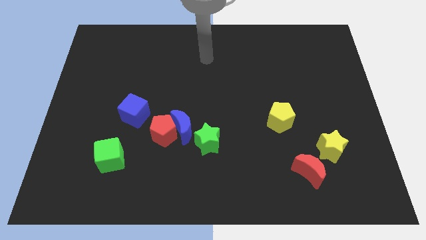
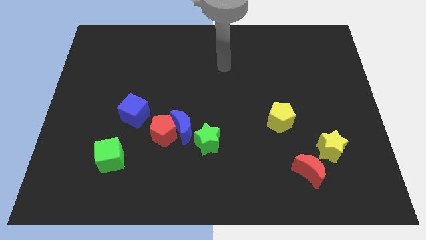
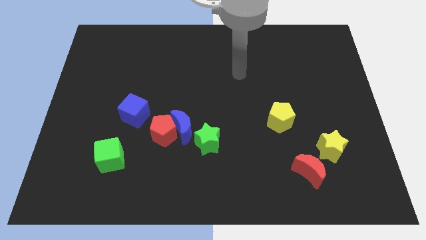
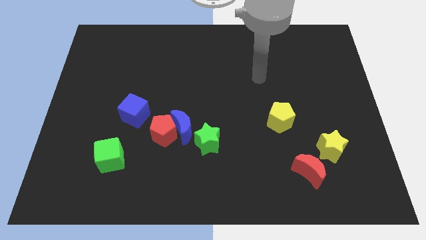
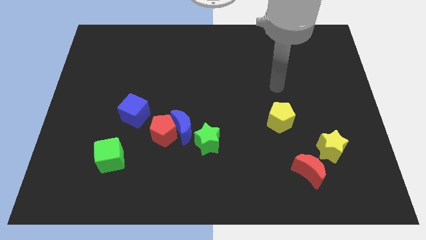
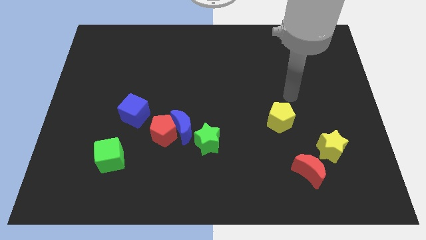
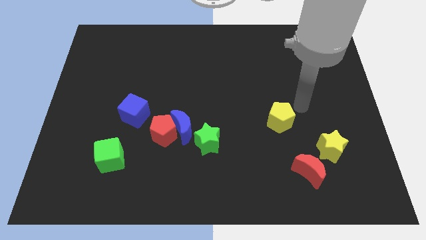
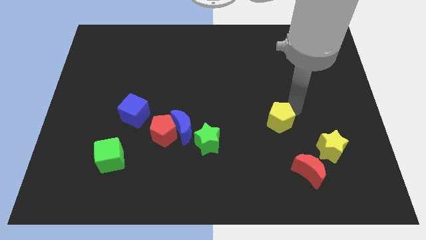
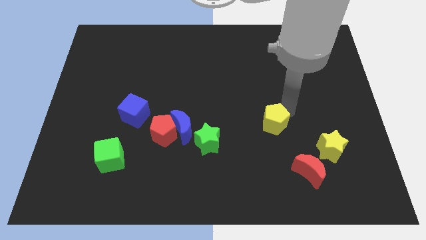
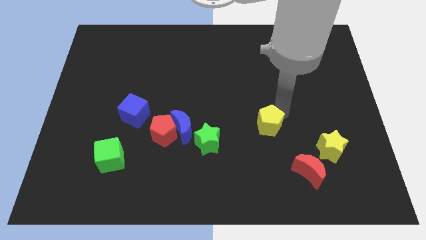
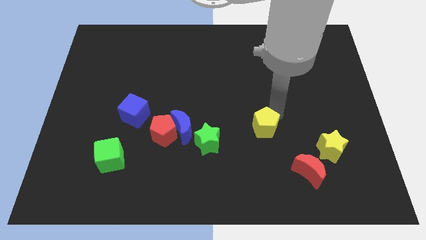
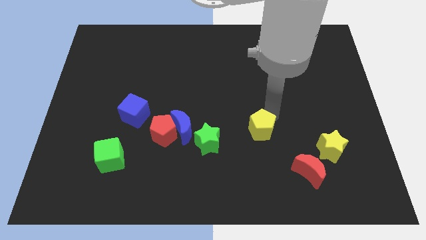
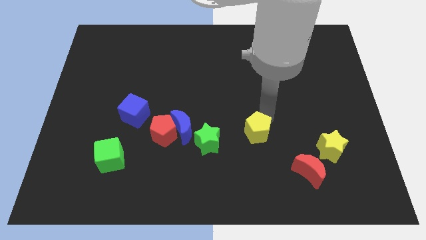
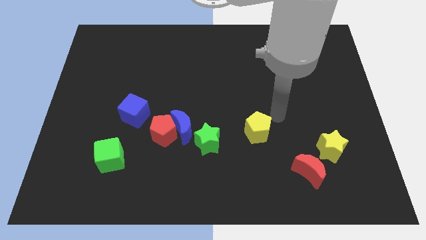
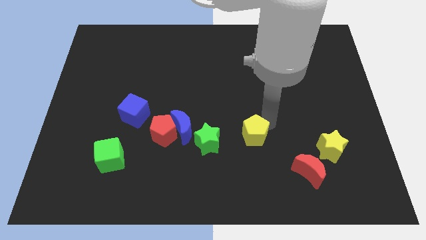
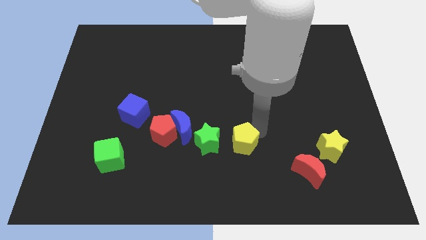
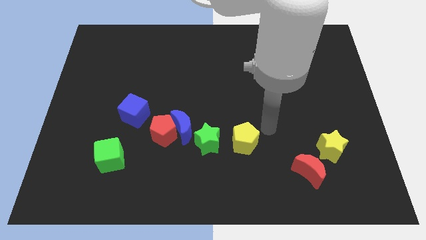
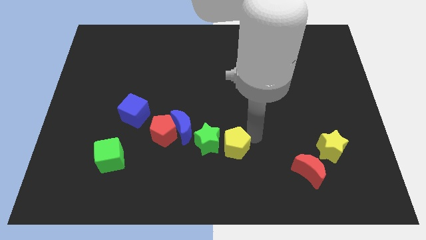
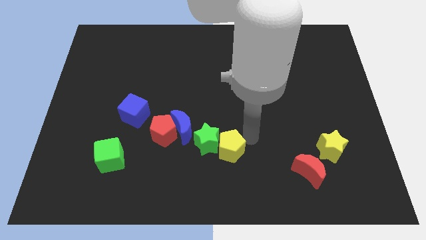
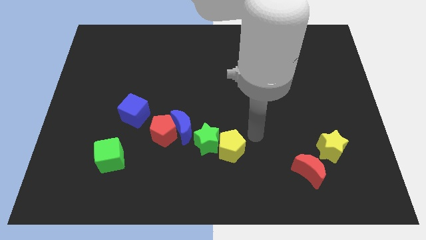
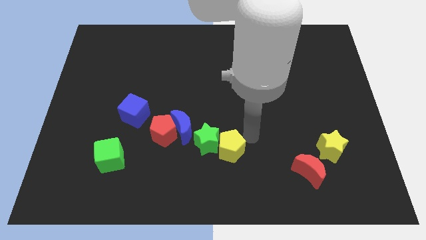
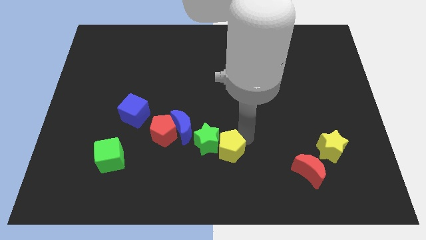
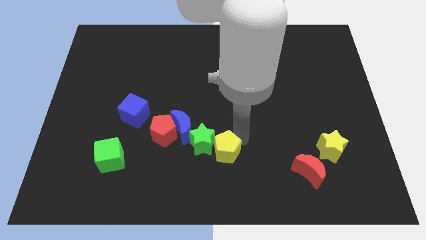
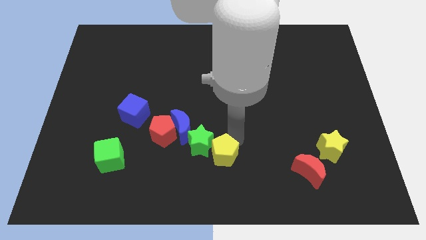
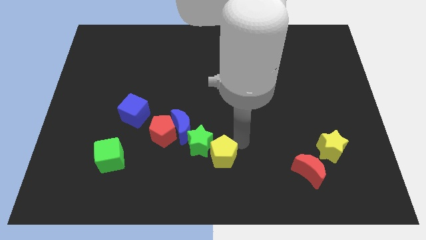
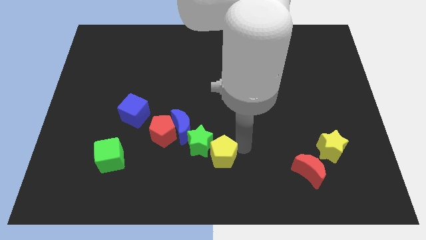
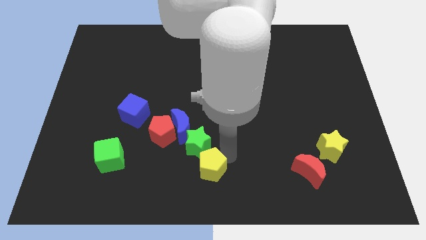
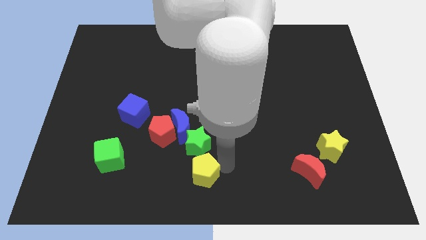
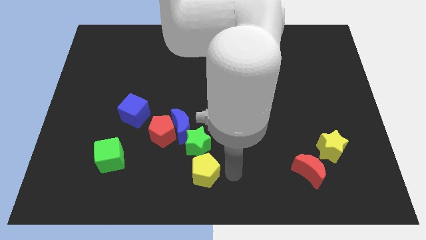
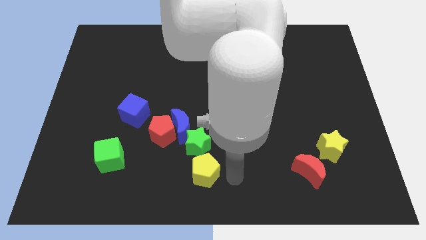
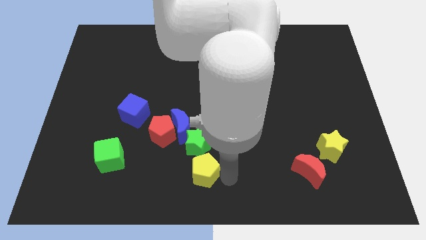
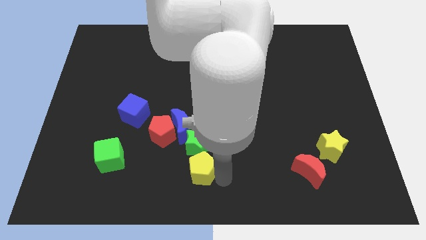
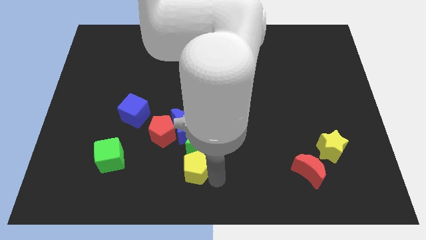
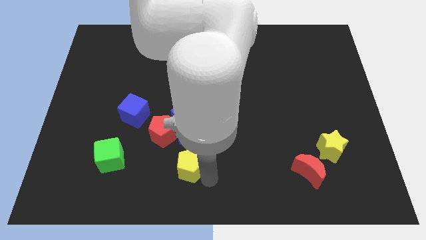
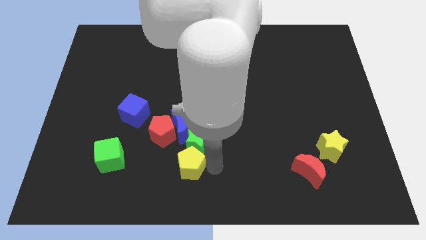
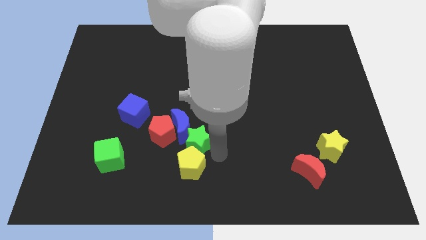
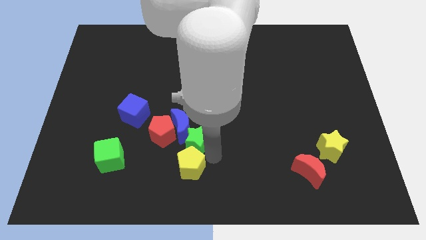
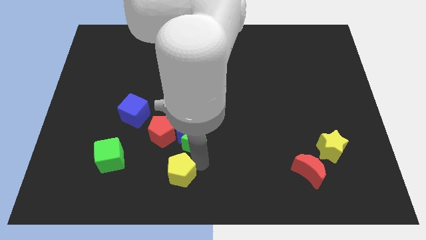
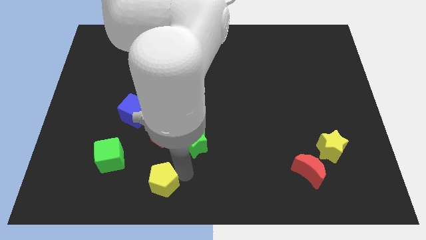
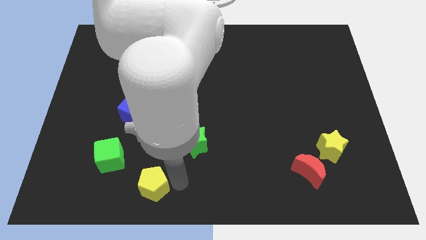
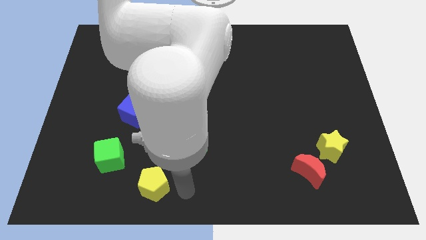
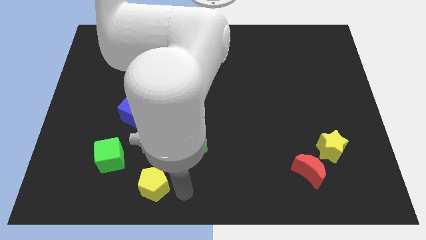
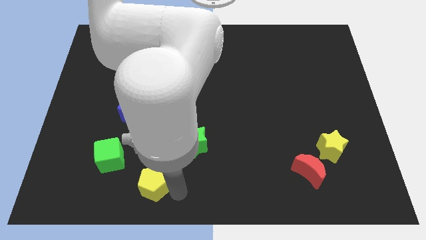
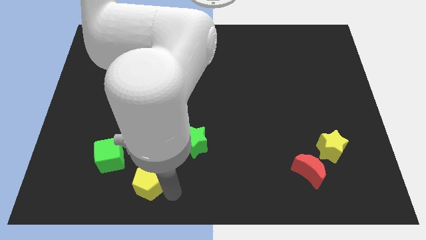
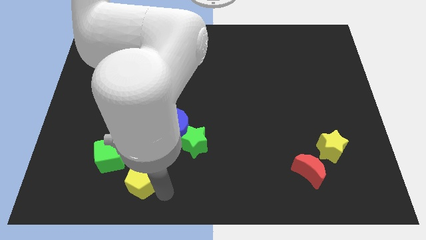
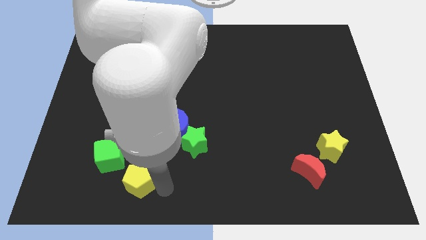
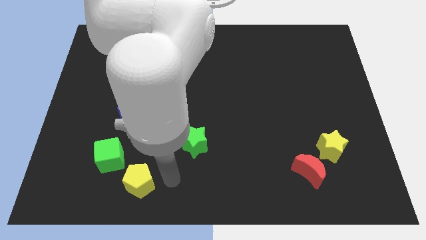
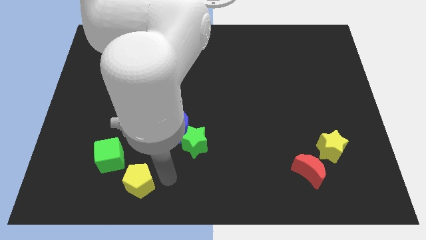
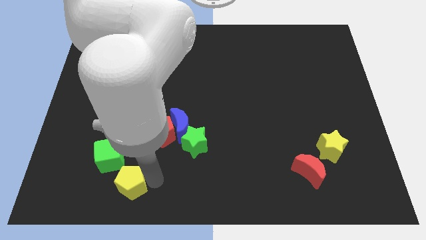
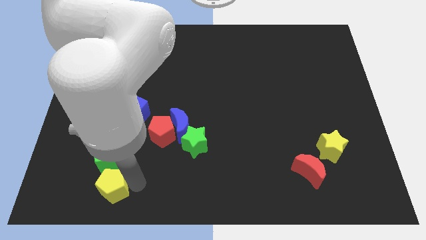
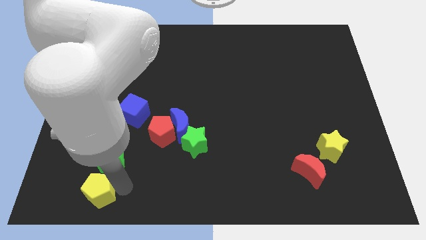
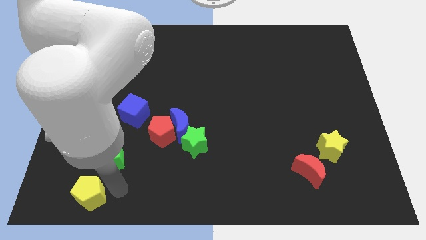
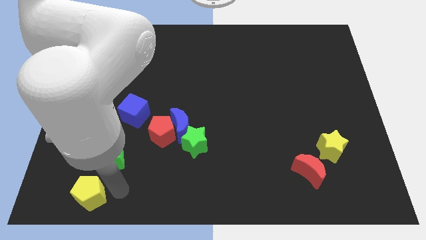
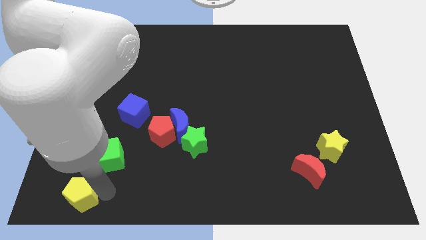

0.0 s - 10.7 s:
slide the yellow pentagon to the bottom left of the board

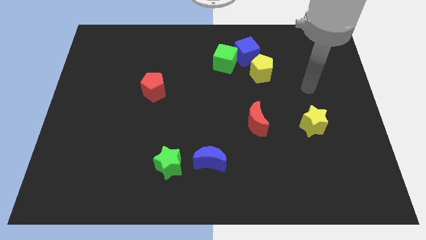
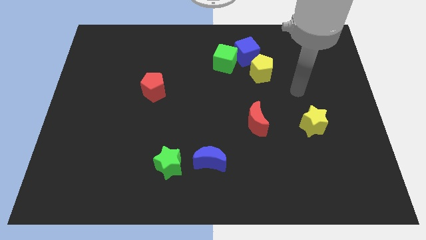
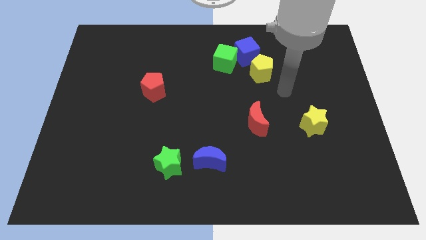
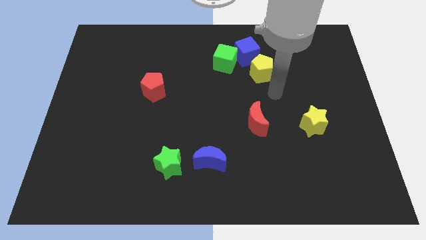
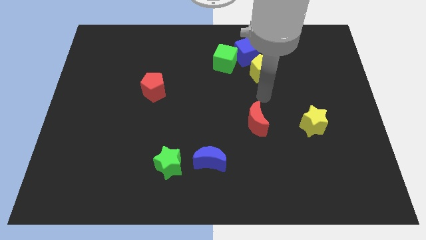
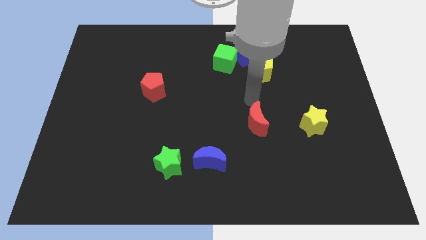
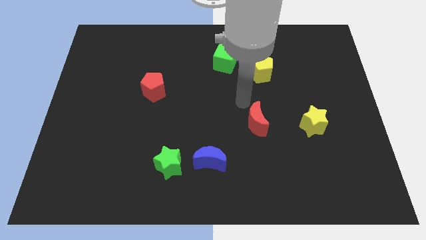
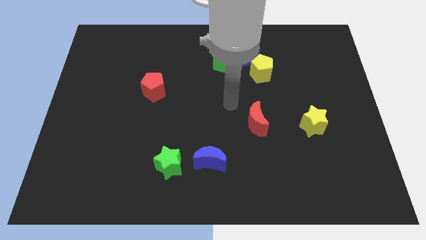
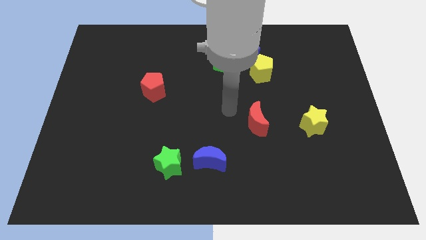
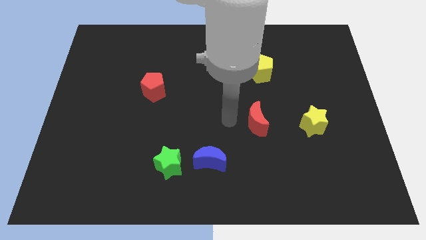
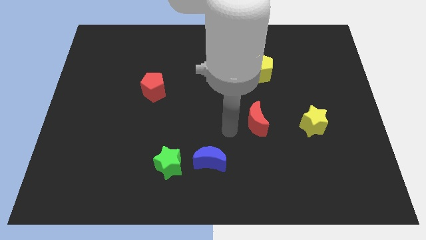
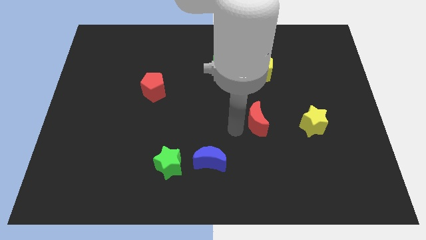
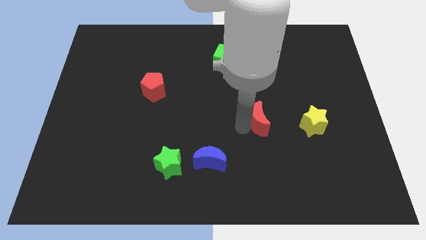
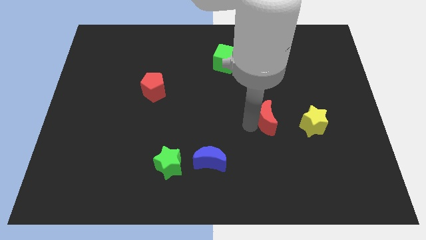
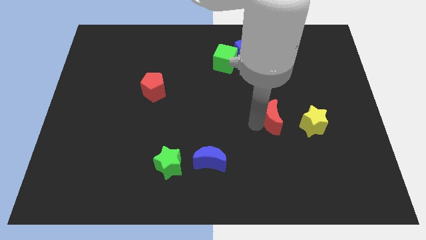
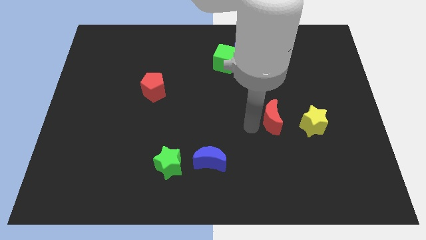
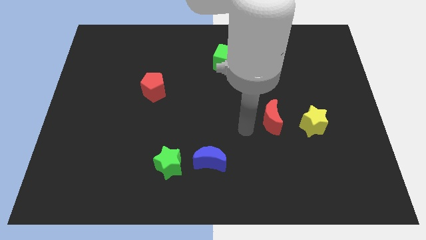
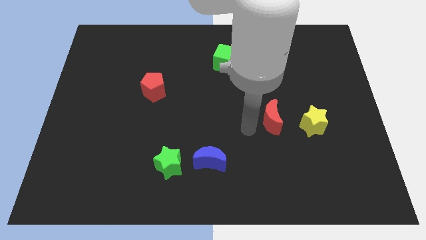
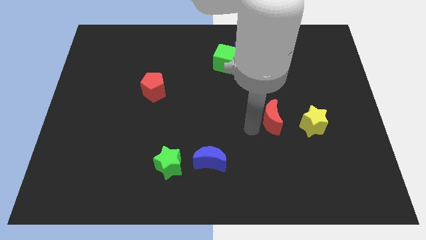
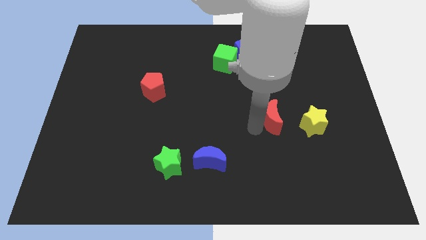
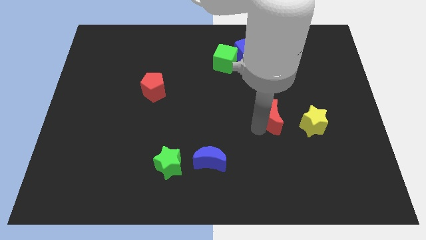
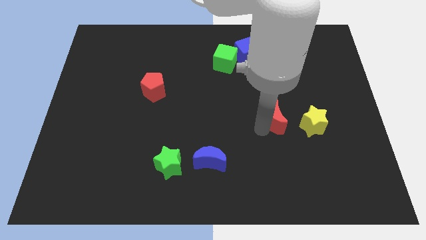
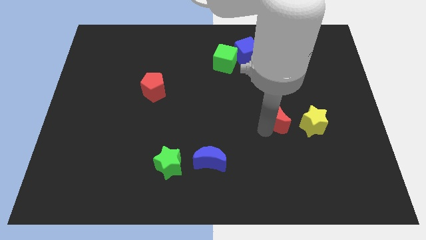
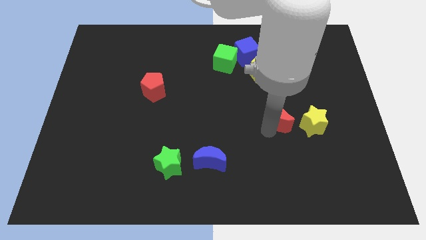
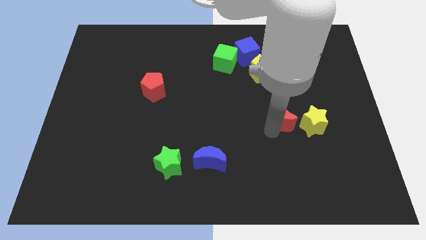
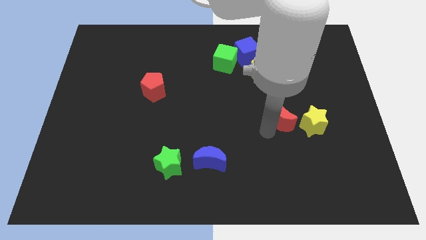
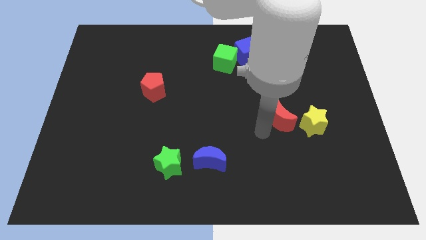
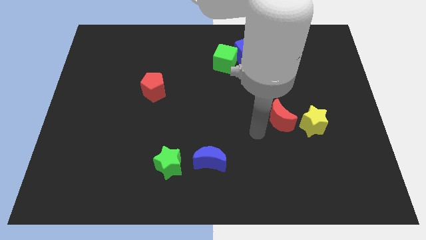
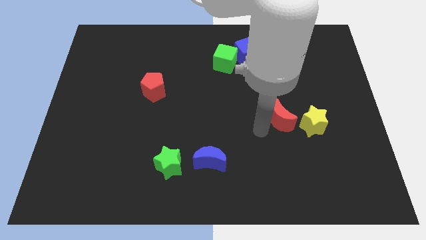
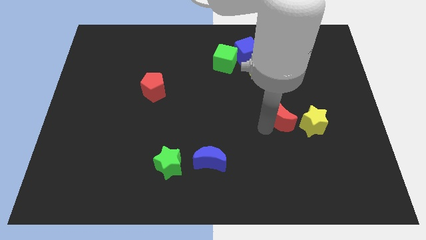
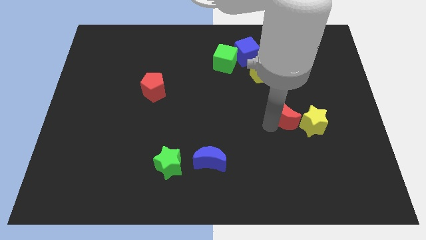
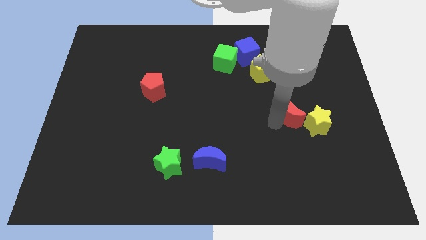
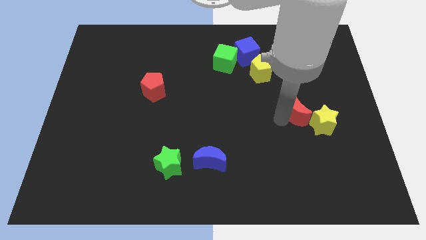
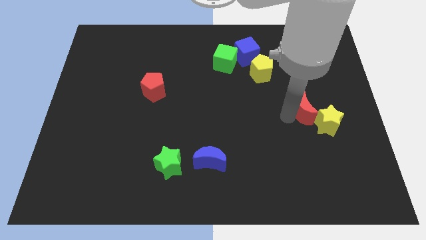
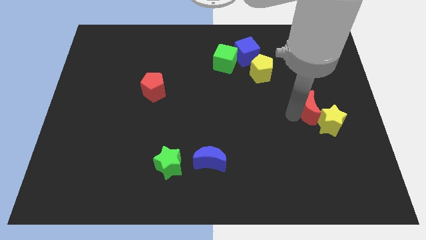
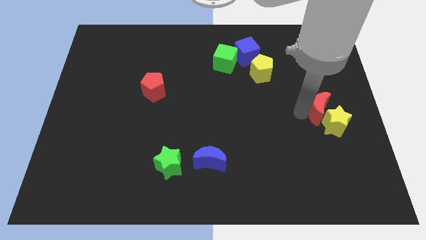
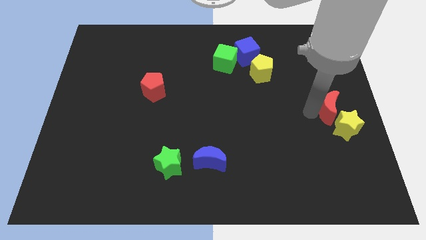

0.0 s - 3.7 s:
push the red moon to the right side
